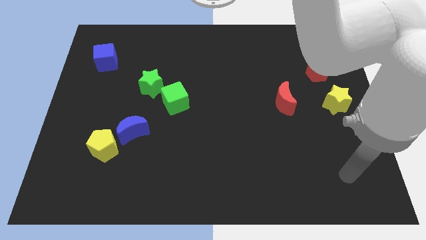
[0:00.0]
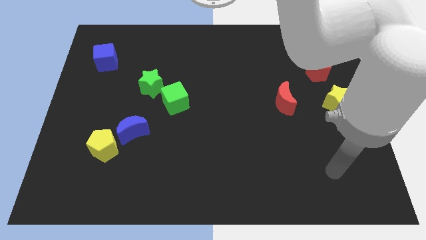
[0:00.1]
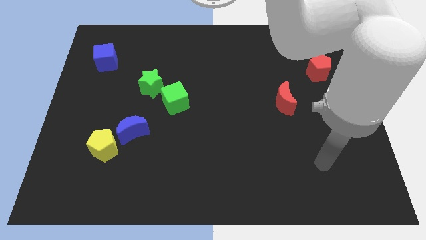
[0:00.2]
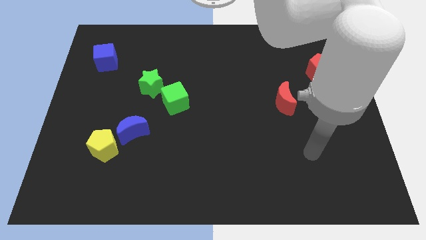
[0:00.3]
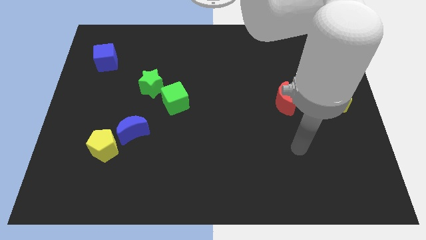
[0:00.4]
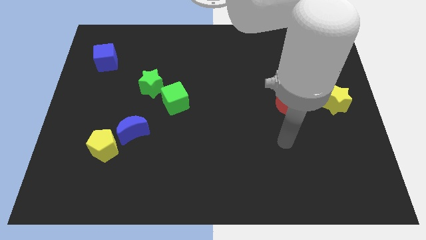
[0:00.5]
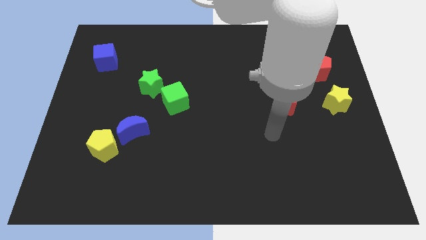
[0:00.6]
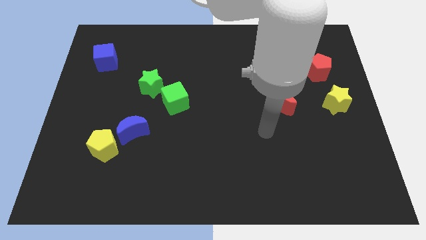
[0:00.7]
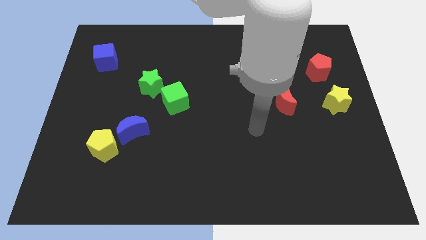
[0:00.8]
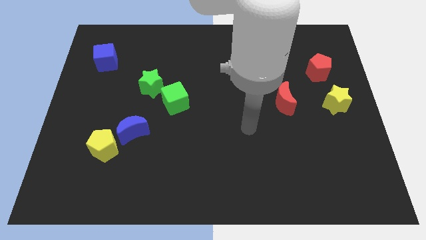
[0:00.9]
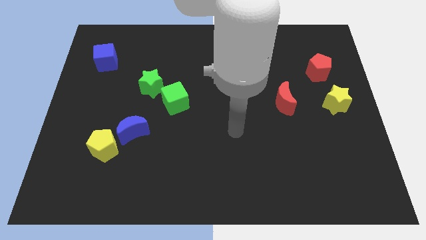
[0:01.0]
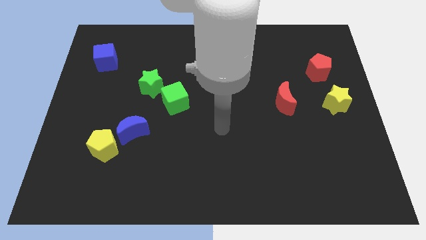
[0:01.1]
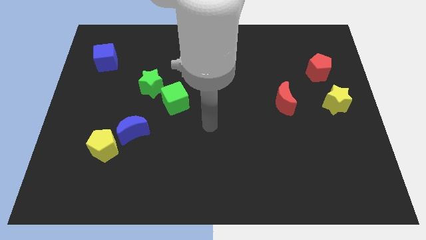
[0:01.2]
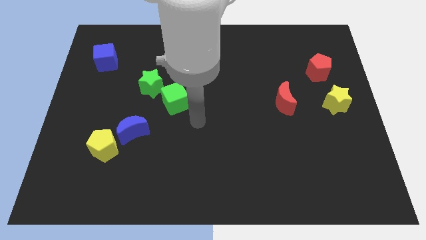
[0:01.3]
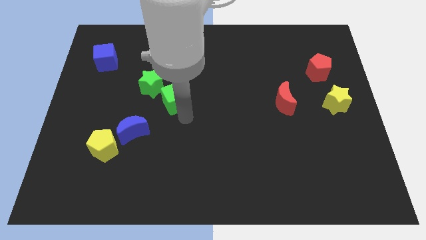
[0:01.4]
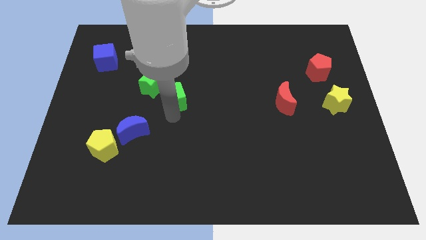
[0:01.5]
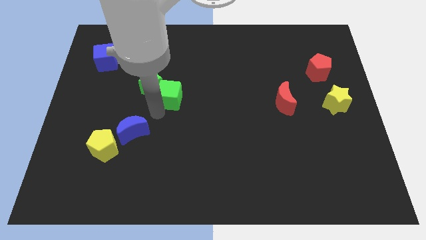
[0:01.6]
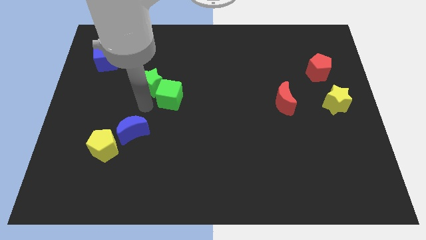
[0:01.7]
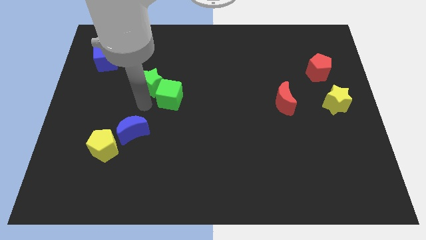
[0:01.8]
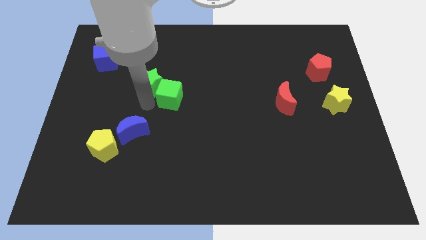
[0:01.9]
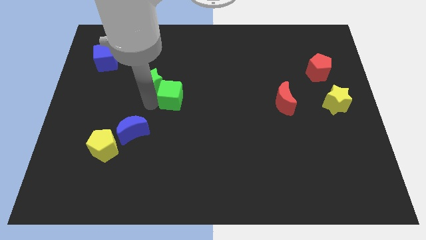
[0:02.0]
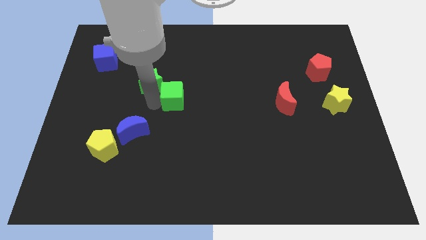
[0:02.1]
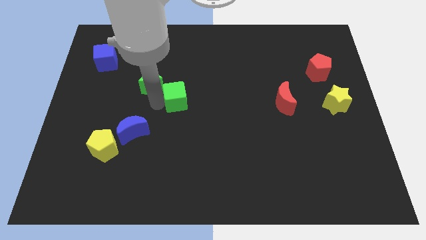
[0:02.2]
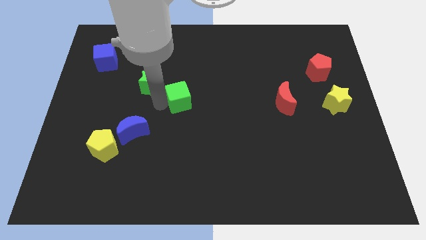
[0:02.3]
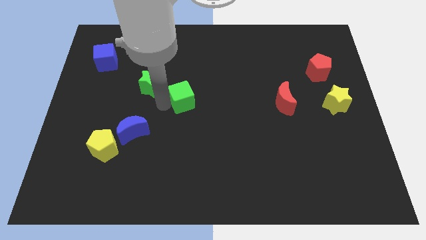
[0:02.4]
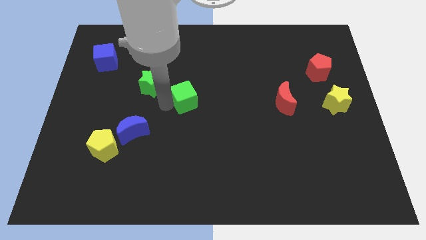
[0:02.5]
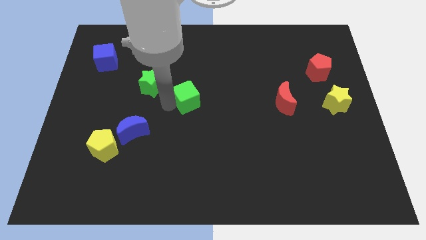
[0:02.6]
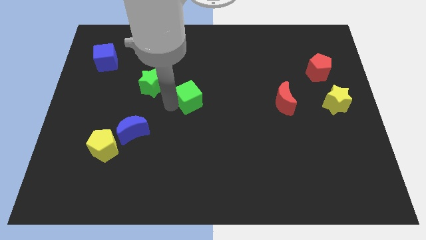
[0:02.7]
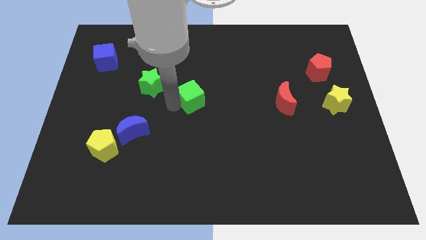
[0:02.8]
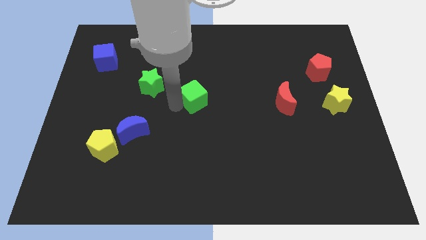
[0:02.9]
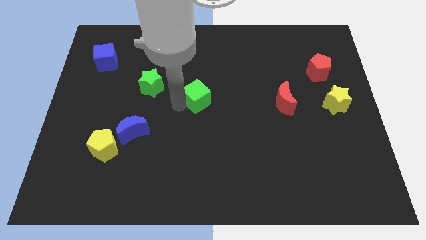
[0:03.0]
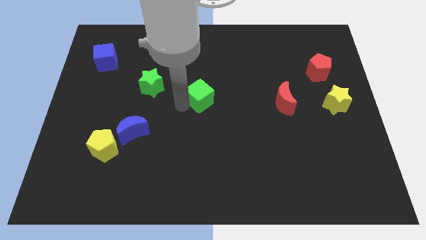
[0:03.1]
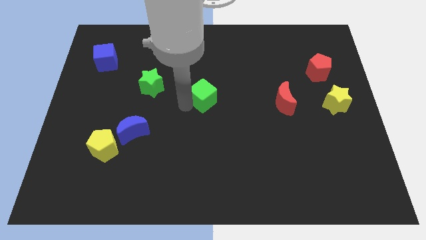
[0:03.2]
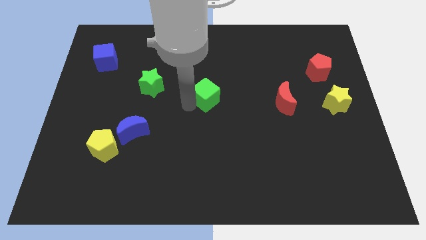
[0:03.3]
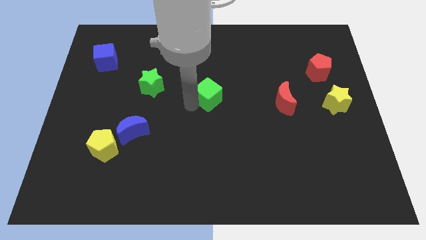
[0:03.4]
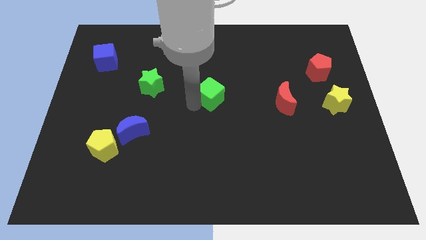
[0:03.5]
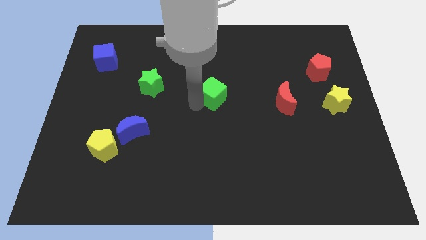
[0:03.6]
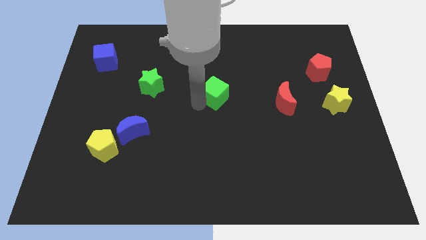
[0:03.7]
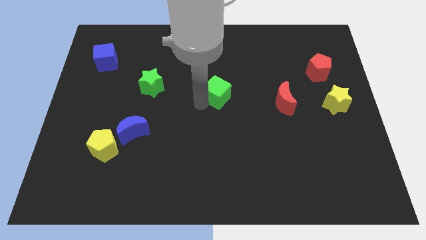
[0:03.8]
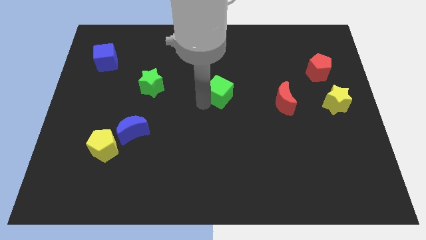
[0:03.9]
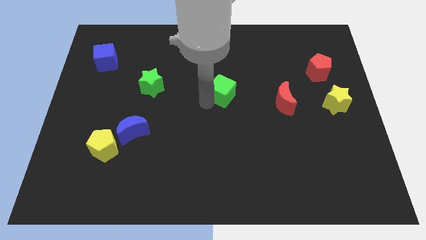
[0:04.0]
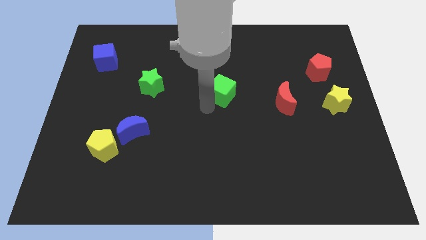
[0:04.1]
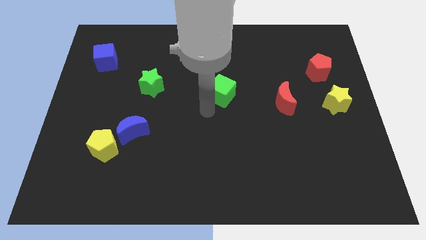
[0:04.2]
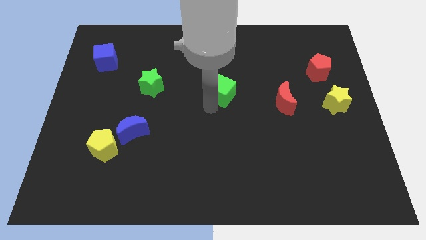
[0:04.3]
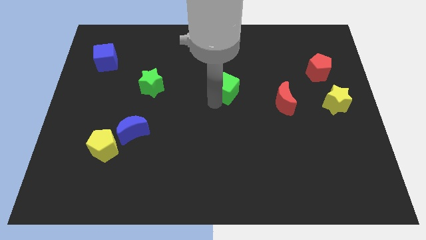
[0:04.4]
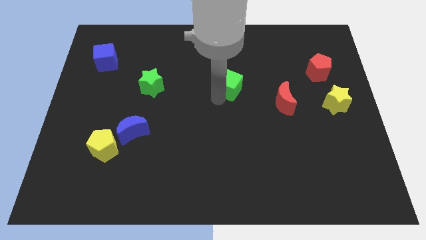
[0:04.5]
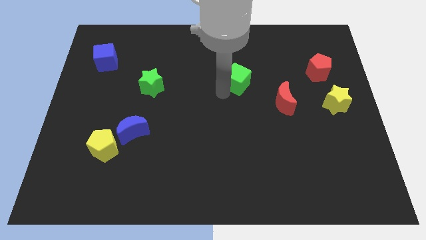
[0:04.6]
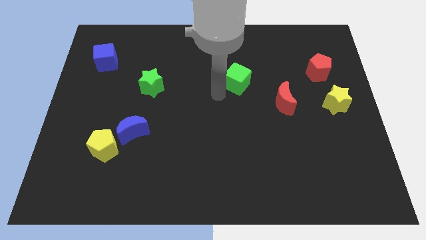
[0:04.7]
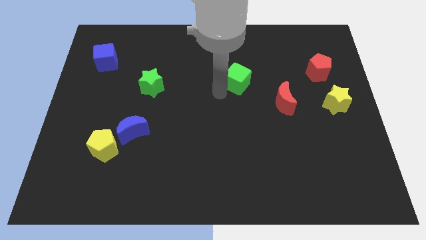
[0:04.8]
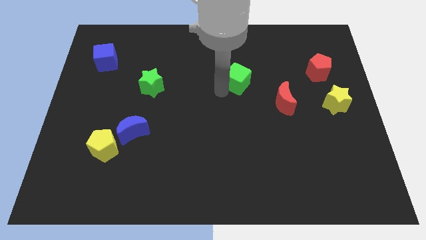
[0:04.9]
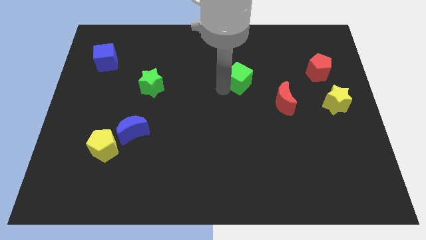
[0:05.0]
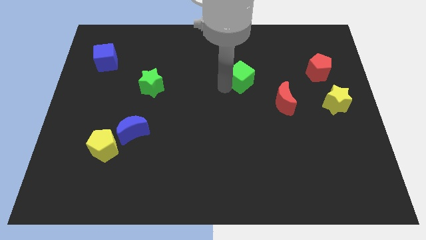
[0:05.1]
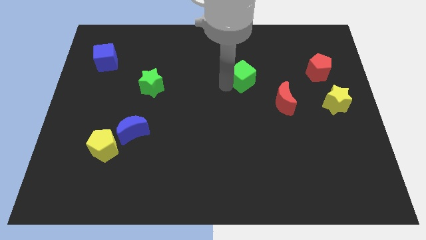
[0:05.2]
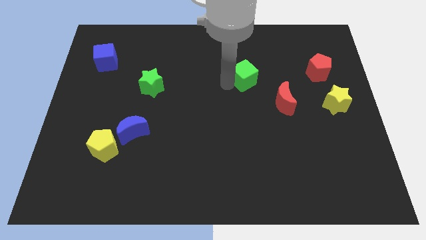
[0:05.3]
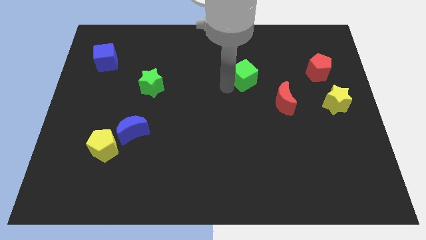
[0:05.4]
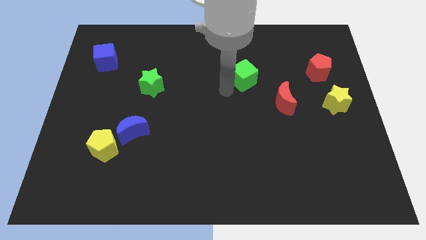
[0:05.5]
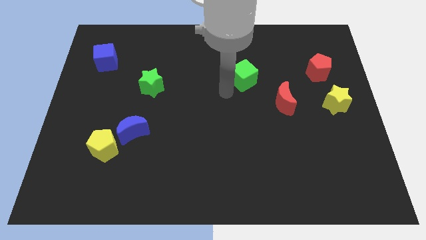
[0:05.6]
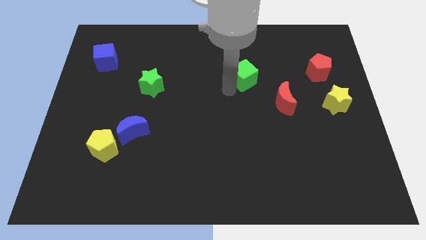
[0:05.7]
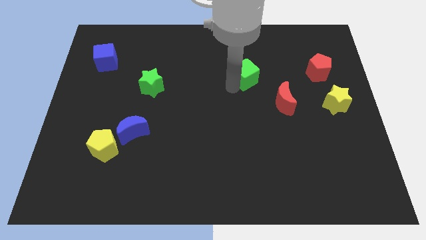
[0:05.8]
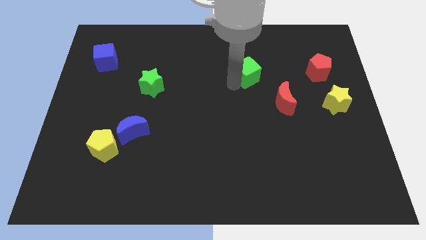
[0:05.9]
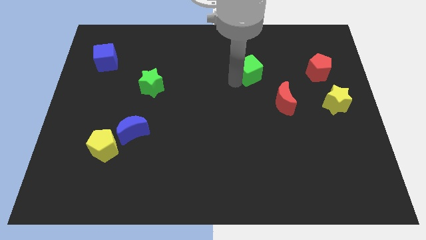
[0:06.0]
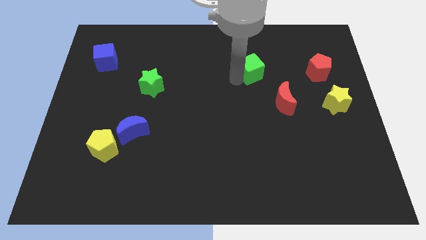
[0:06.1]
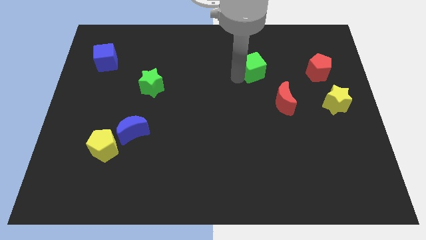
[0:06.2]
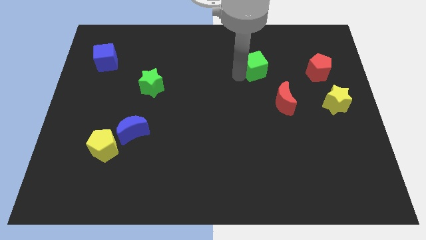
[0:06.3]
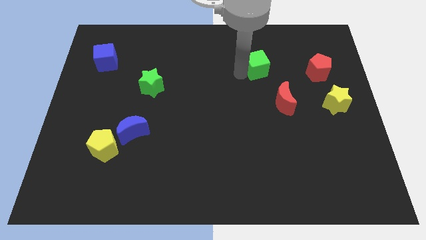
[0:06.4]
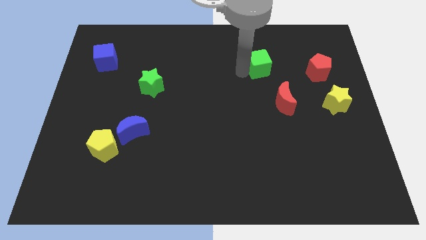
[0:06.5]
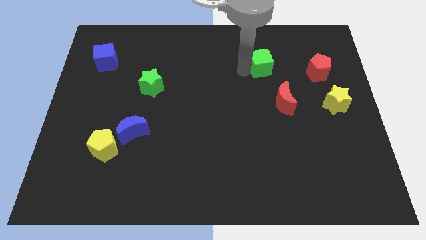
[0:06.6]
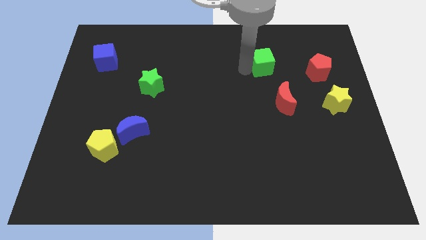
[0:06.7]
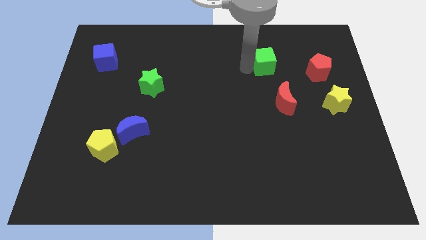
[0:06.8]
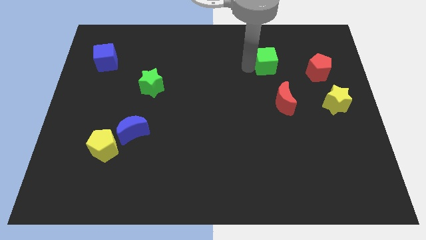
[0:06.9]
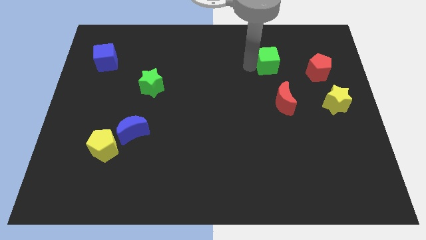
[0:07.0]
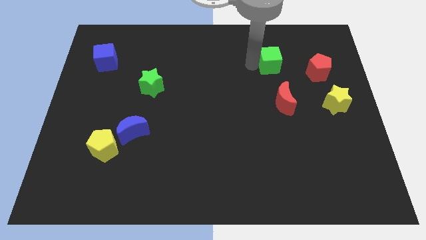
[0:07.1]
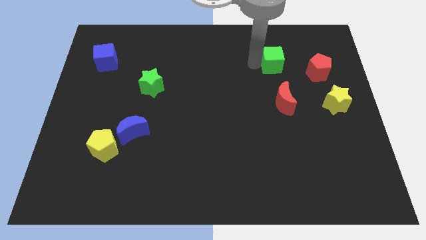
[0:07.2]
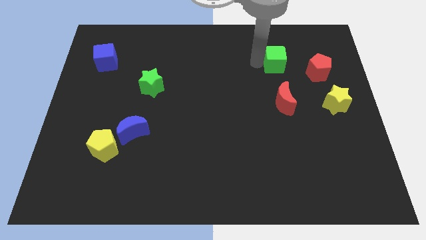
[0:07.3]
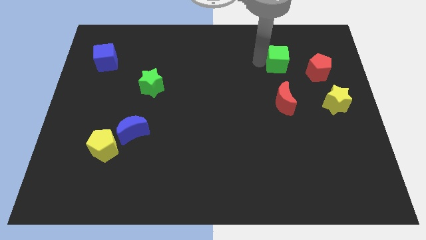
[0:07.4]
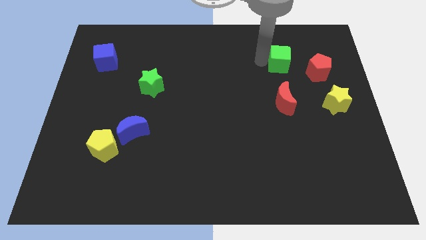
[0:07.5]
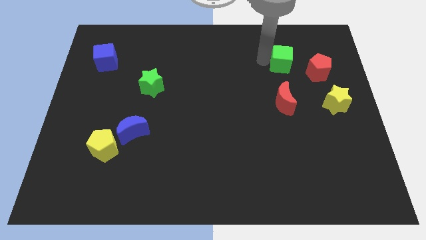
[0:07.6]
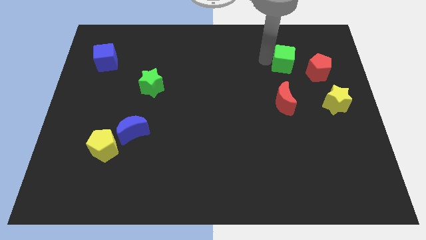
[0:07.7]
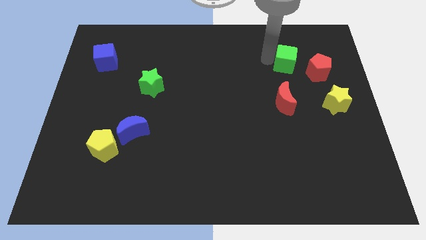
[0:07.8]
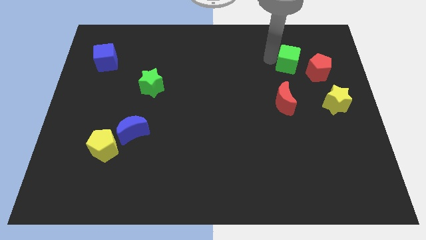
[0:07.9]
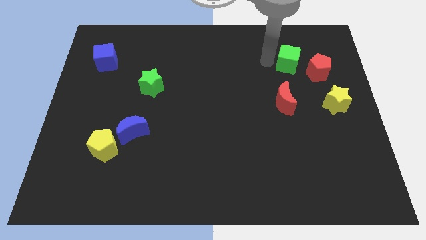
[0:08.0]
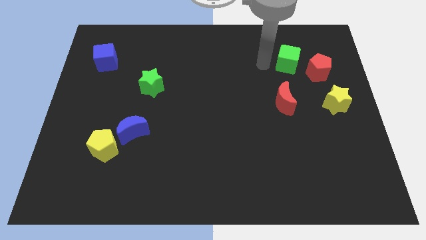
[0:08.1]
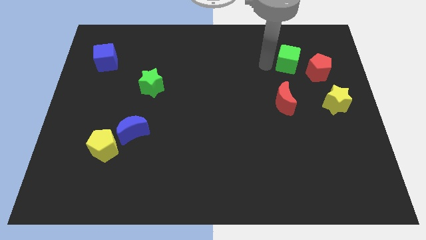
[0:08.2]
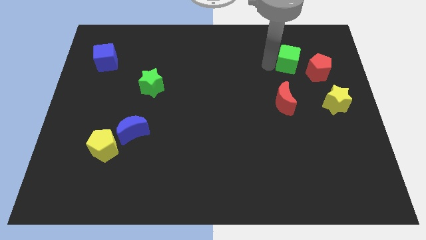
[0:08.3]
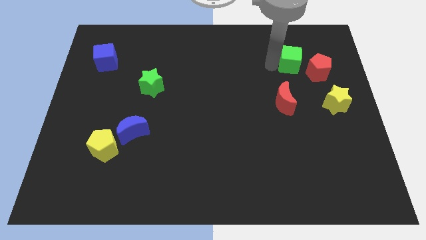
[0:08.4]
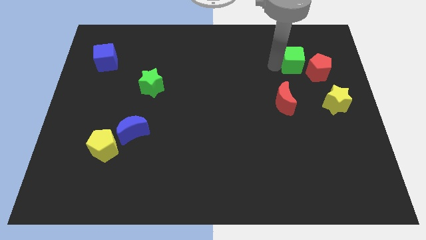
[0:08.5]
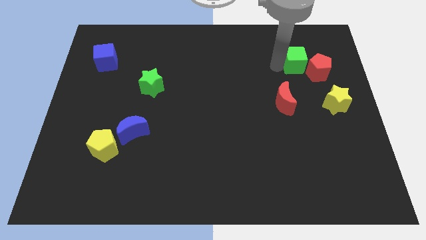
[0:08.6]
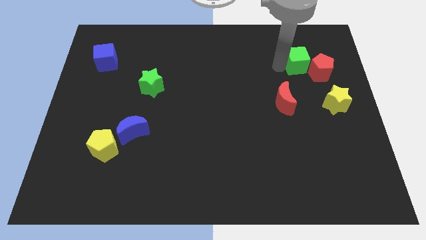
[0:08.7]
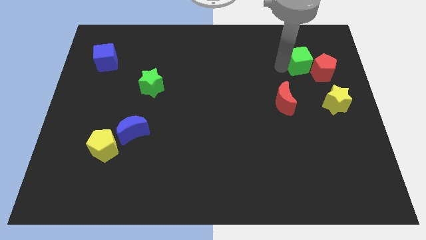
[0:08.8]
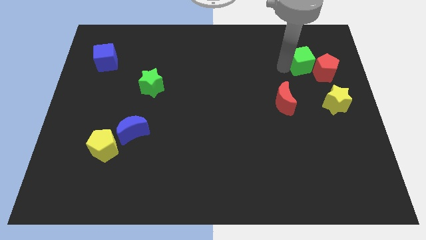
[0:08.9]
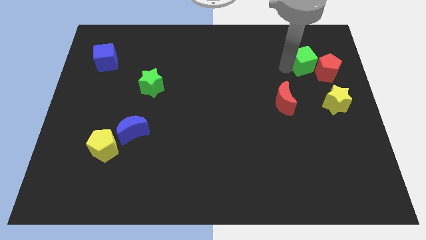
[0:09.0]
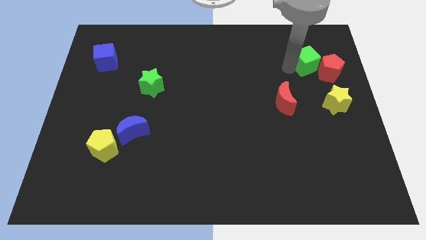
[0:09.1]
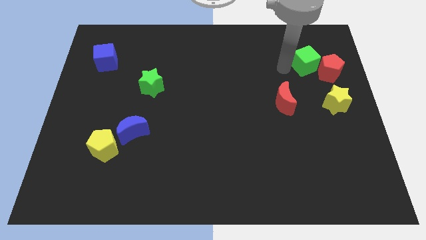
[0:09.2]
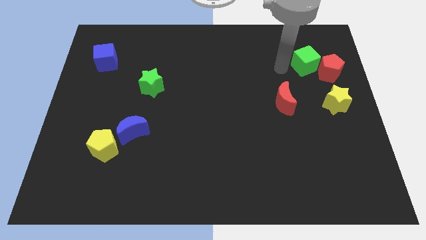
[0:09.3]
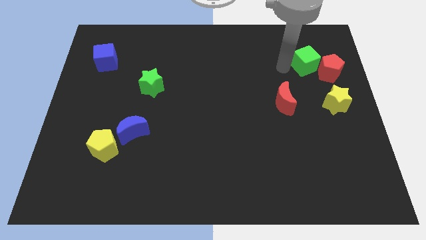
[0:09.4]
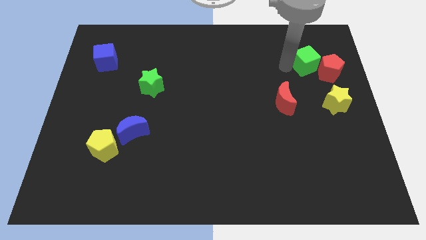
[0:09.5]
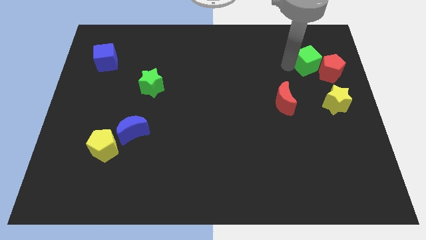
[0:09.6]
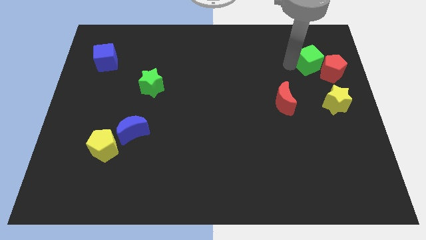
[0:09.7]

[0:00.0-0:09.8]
push the green cube above the yellow star
